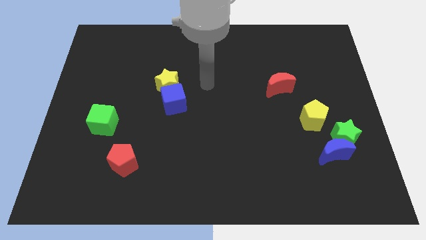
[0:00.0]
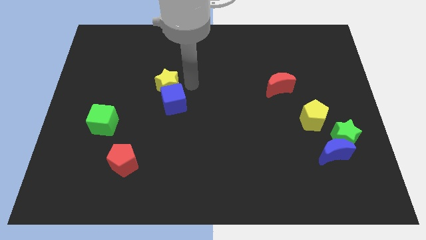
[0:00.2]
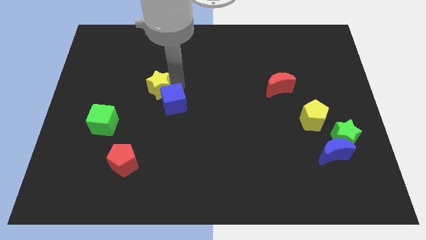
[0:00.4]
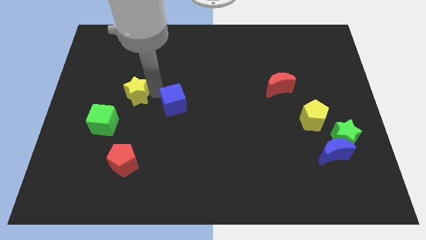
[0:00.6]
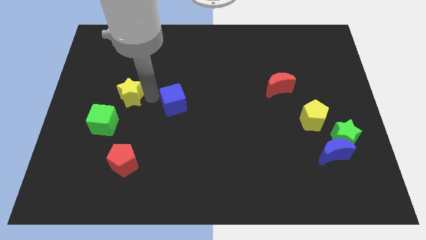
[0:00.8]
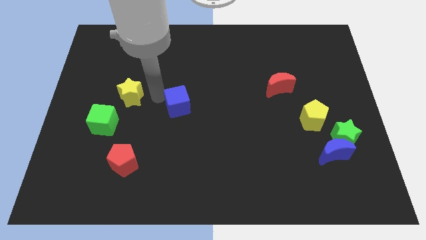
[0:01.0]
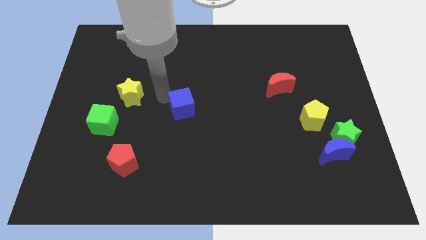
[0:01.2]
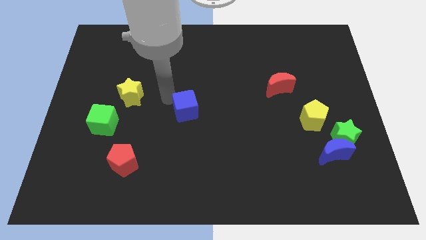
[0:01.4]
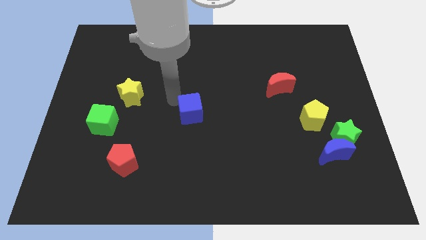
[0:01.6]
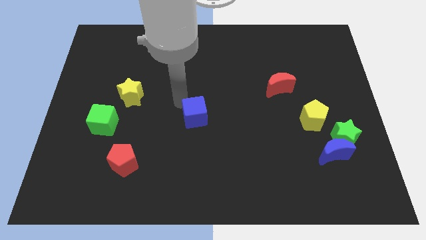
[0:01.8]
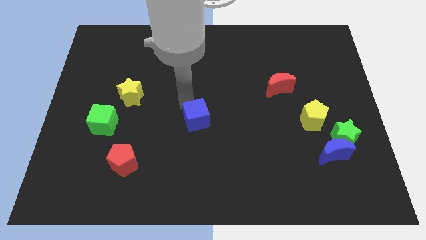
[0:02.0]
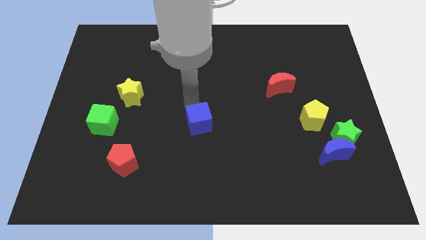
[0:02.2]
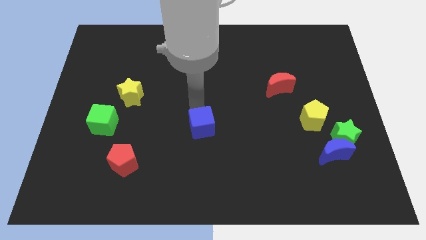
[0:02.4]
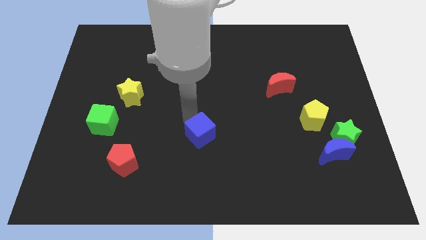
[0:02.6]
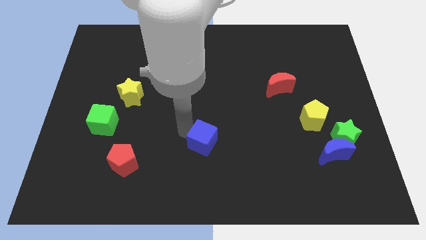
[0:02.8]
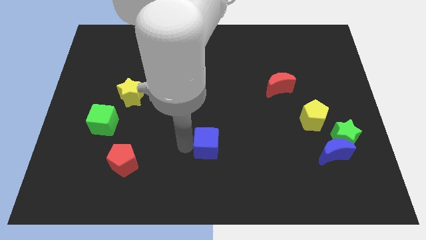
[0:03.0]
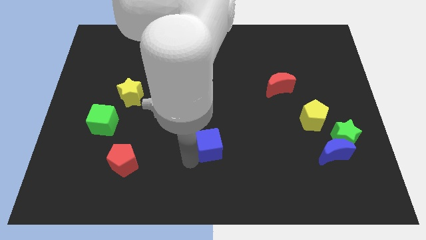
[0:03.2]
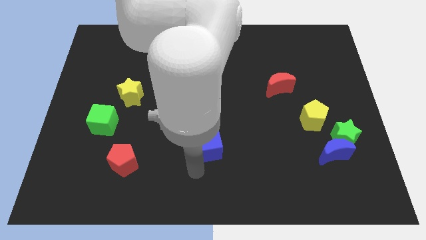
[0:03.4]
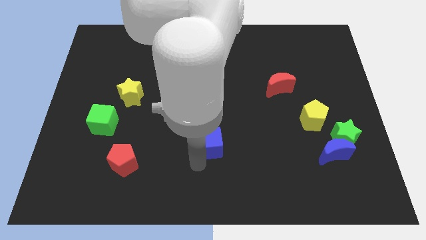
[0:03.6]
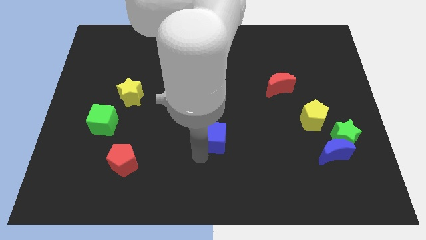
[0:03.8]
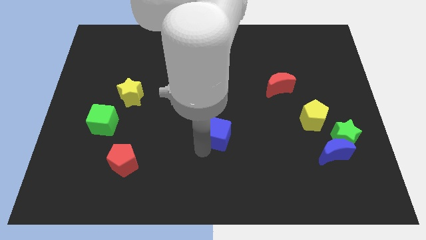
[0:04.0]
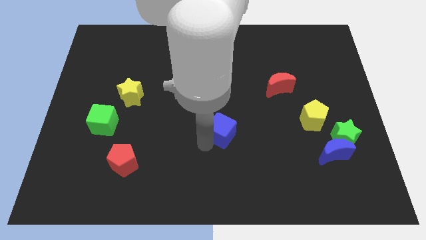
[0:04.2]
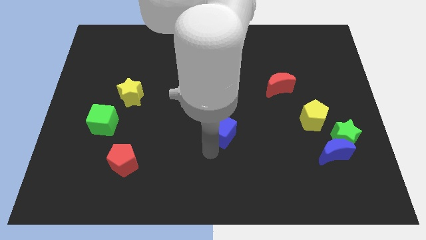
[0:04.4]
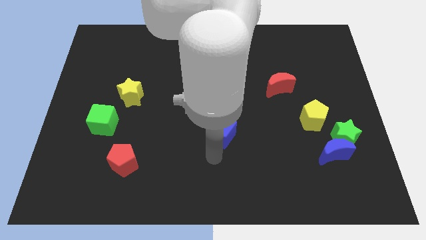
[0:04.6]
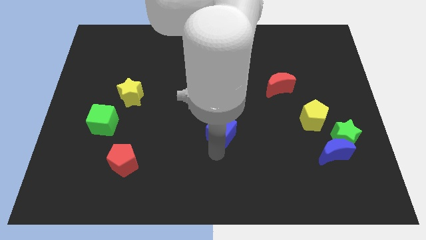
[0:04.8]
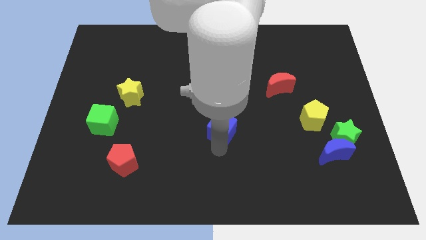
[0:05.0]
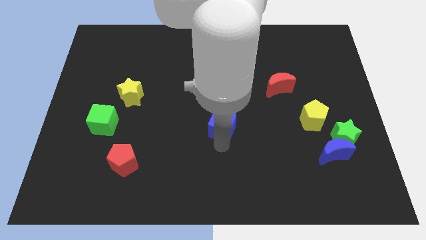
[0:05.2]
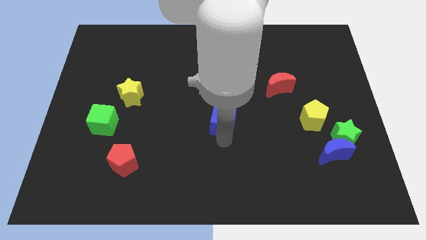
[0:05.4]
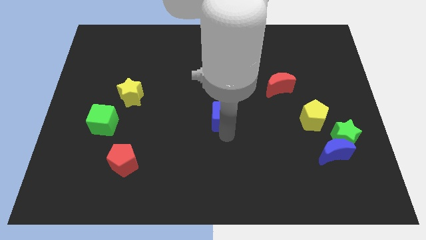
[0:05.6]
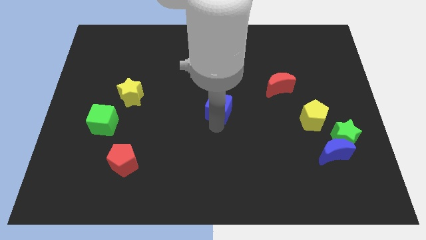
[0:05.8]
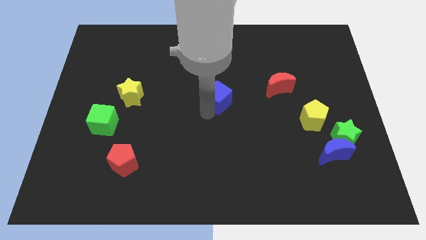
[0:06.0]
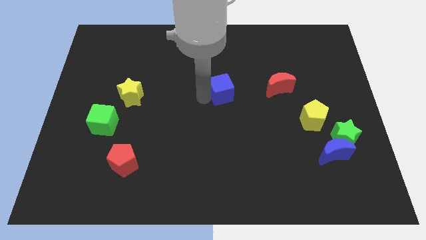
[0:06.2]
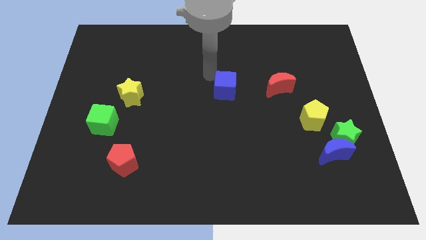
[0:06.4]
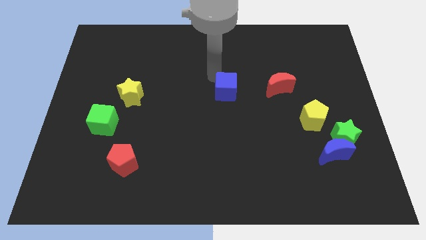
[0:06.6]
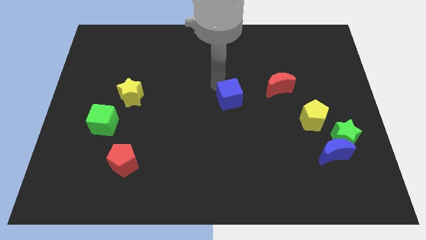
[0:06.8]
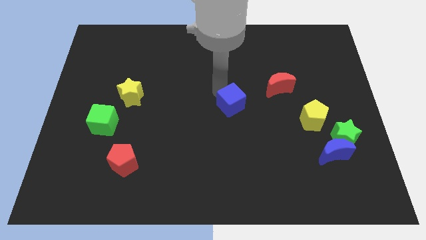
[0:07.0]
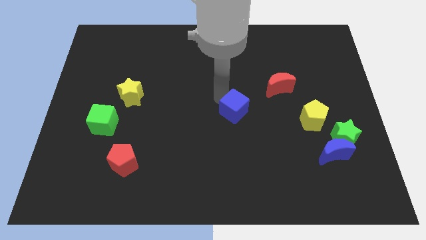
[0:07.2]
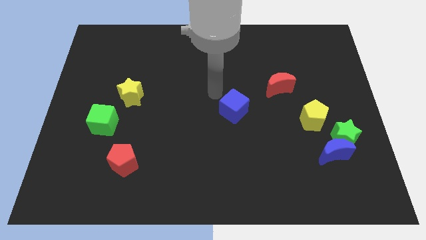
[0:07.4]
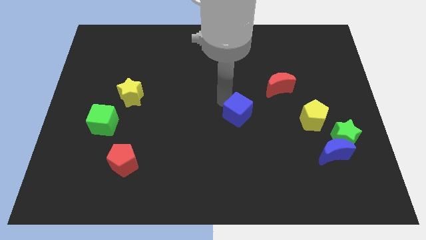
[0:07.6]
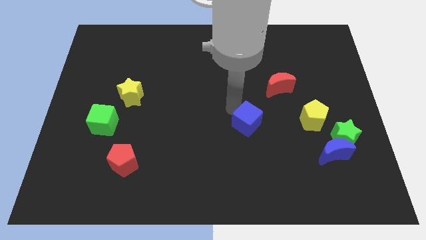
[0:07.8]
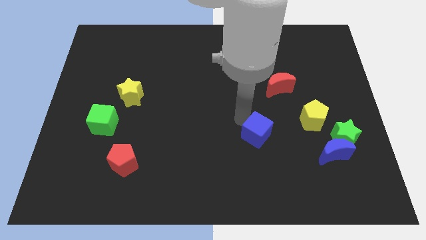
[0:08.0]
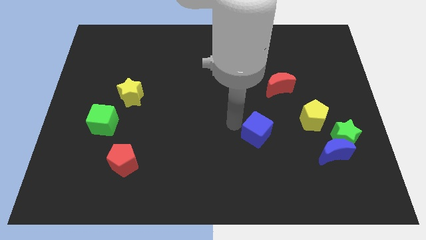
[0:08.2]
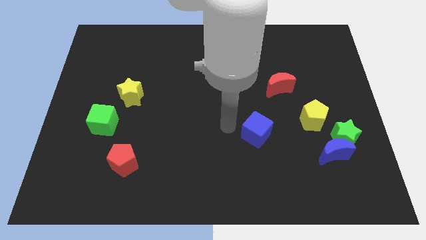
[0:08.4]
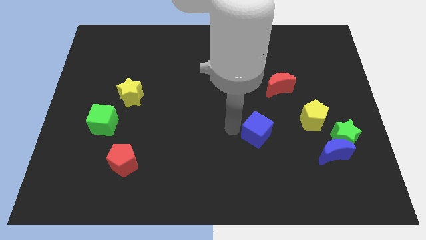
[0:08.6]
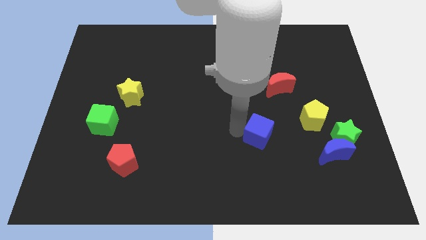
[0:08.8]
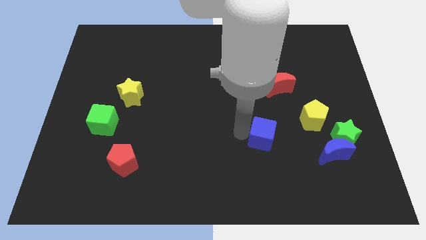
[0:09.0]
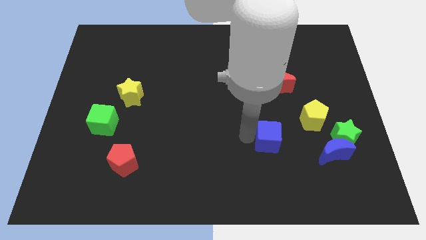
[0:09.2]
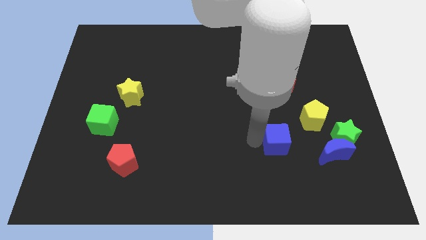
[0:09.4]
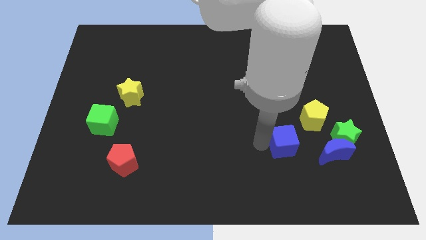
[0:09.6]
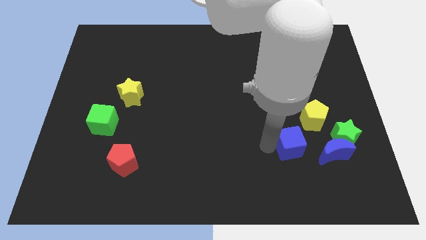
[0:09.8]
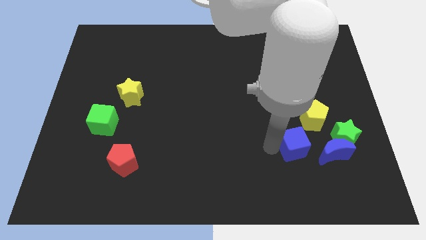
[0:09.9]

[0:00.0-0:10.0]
move the blue cube diagonally up and to the left of the blue moon

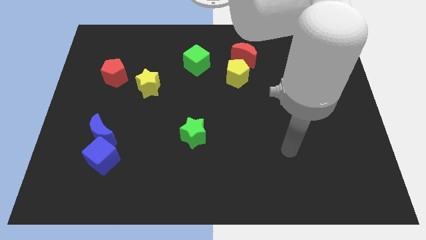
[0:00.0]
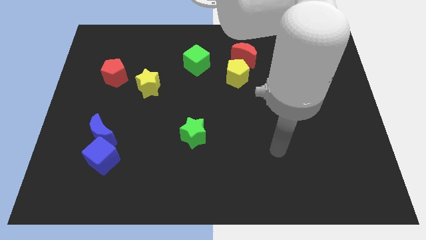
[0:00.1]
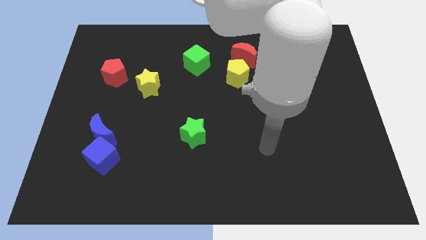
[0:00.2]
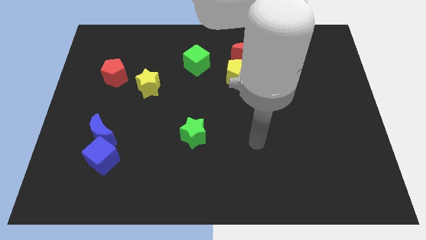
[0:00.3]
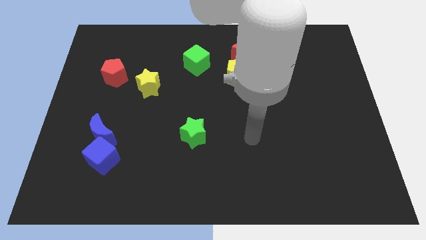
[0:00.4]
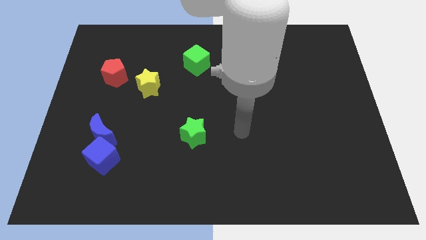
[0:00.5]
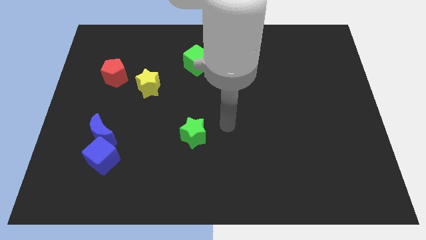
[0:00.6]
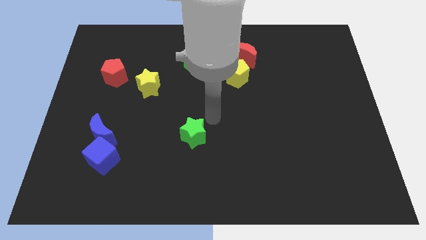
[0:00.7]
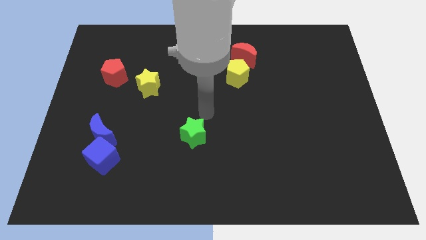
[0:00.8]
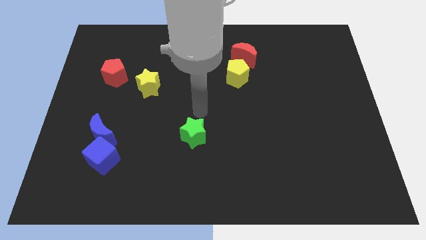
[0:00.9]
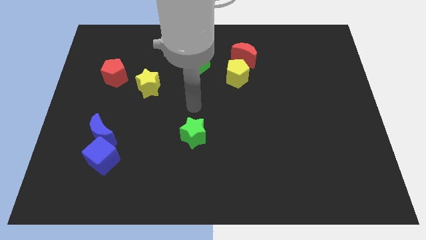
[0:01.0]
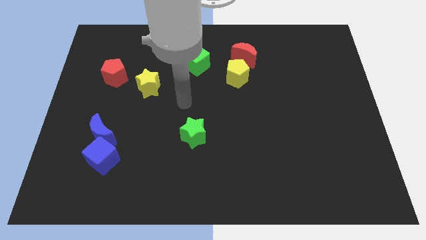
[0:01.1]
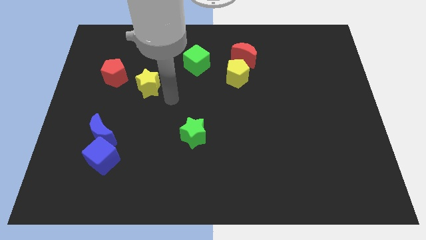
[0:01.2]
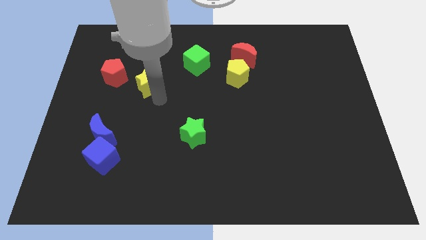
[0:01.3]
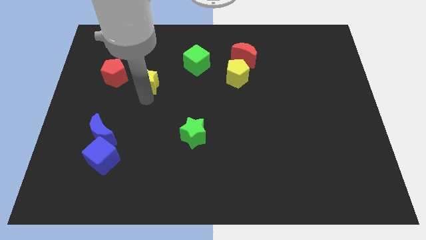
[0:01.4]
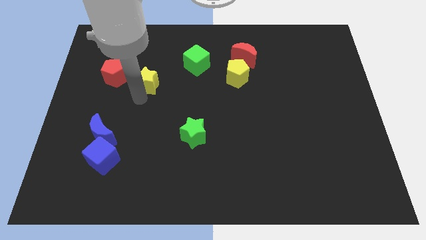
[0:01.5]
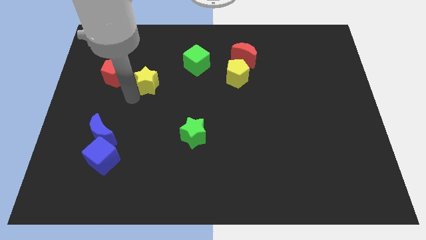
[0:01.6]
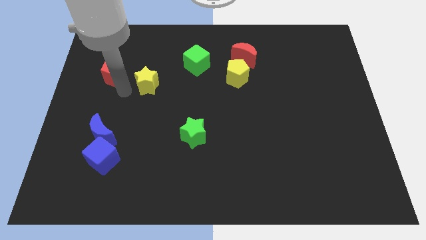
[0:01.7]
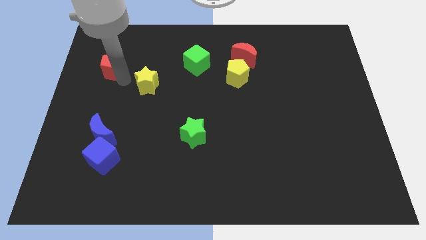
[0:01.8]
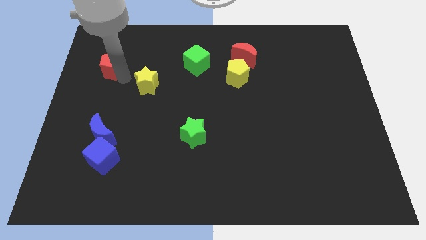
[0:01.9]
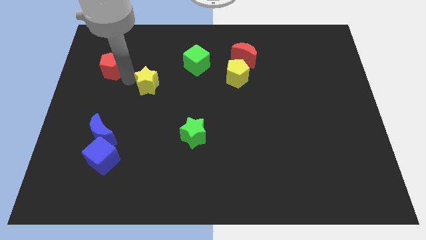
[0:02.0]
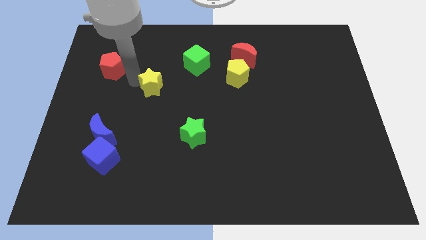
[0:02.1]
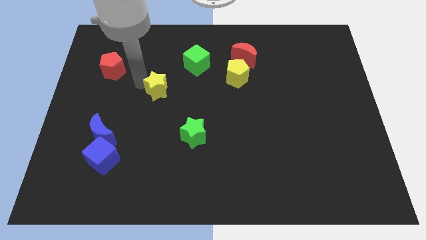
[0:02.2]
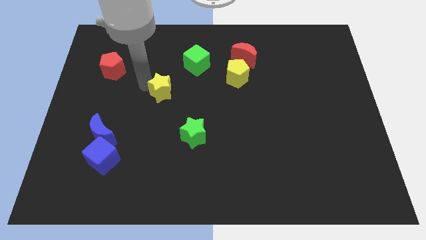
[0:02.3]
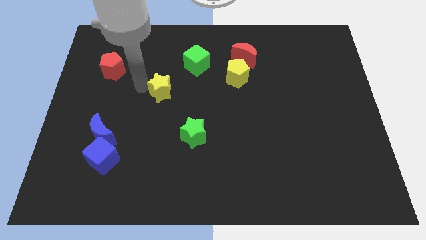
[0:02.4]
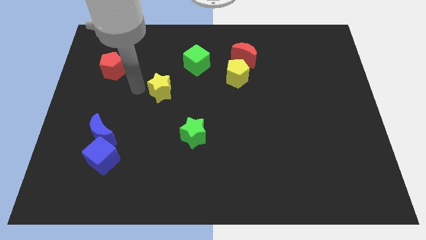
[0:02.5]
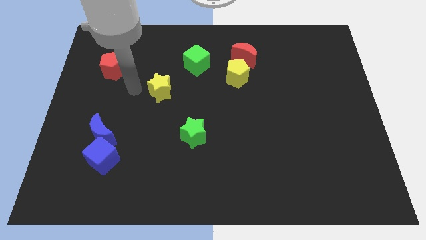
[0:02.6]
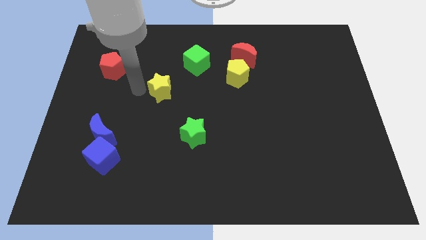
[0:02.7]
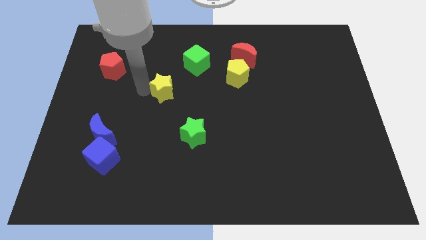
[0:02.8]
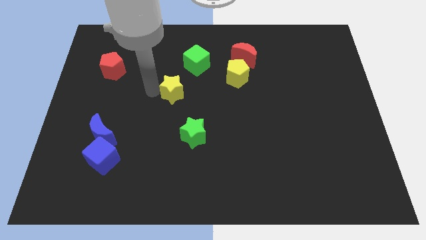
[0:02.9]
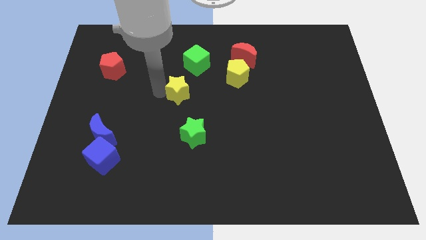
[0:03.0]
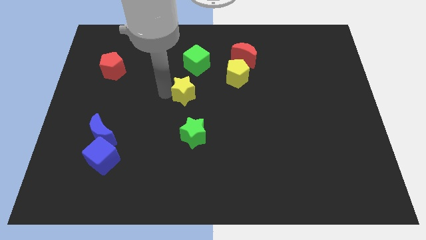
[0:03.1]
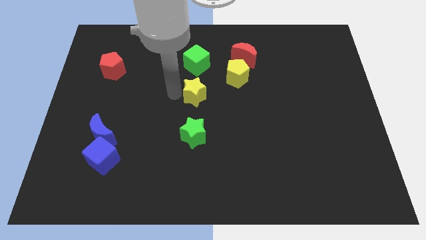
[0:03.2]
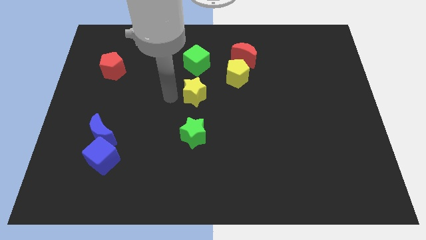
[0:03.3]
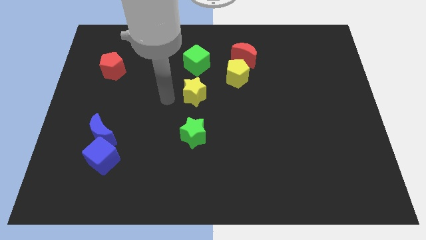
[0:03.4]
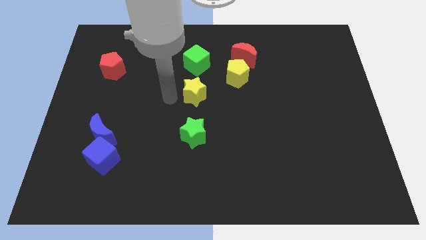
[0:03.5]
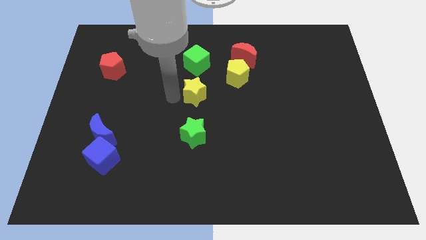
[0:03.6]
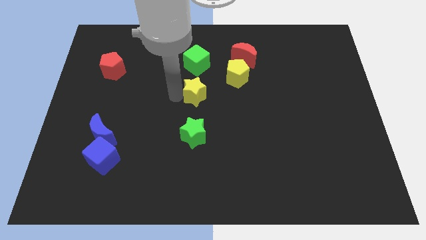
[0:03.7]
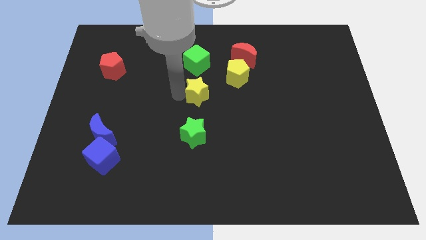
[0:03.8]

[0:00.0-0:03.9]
put the yellow star diagonally down and to the left of the yellow pentagon
